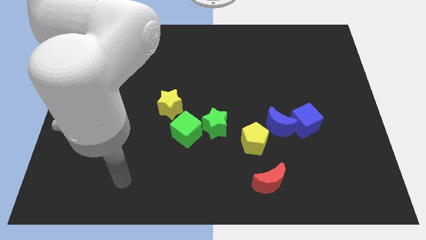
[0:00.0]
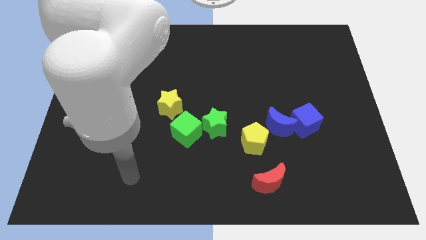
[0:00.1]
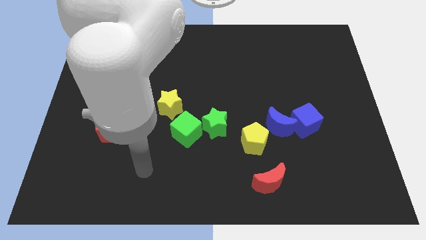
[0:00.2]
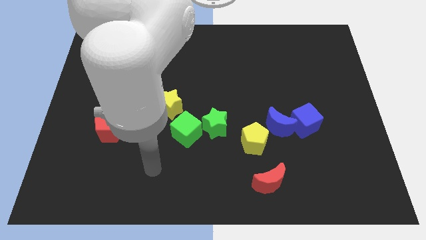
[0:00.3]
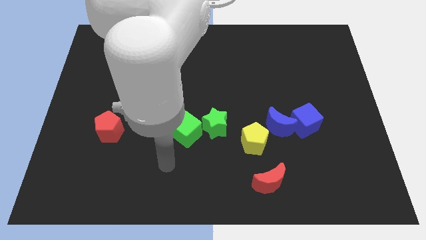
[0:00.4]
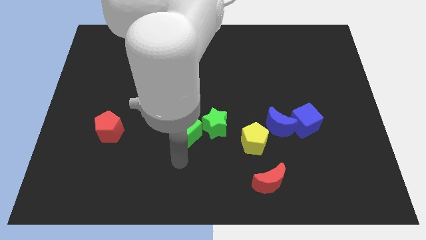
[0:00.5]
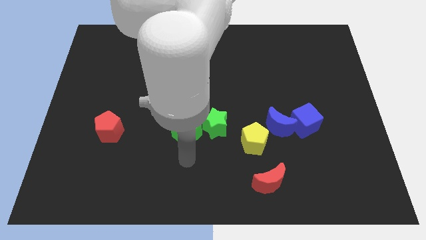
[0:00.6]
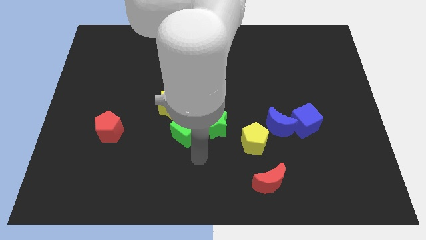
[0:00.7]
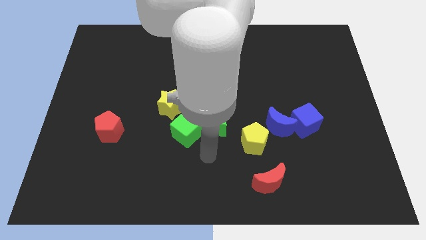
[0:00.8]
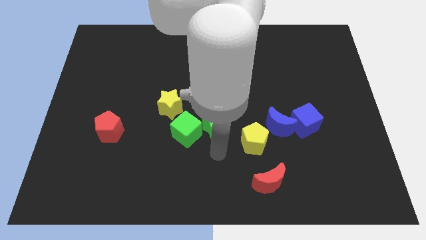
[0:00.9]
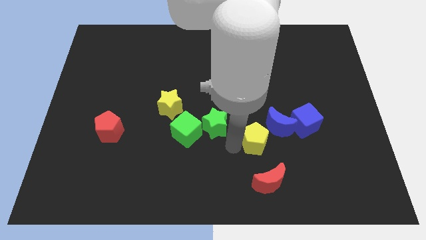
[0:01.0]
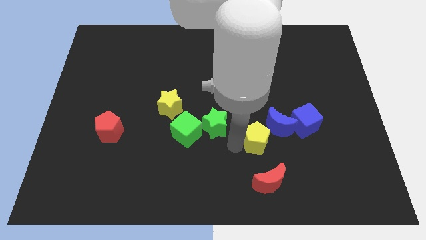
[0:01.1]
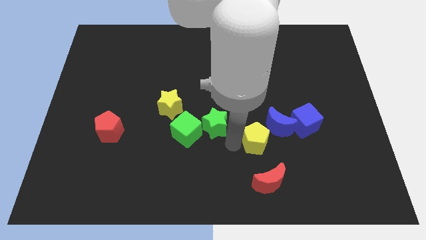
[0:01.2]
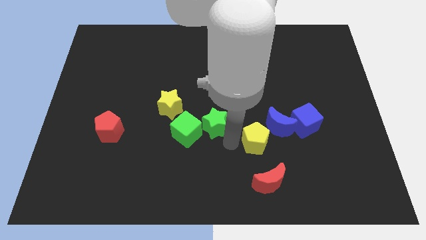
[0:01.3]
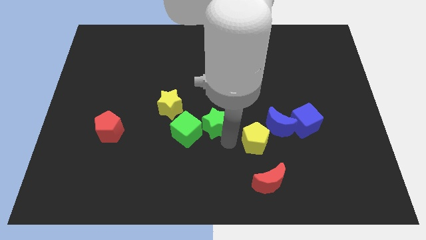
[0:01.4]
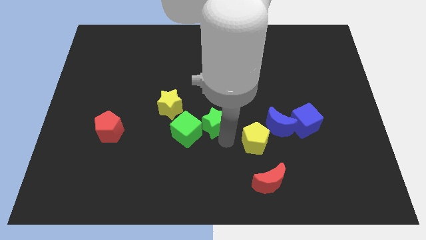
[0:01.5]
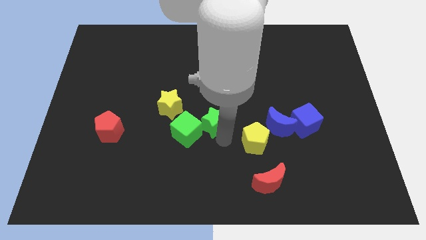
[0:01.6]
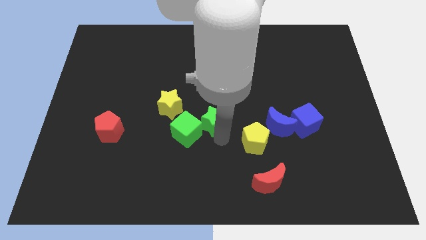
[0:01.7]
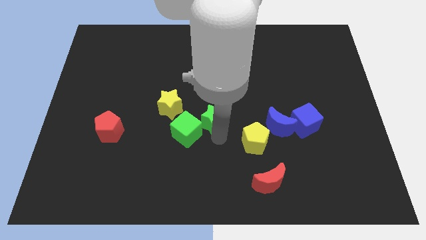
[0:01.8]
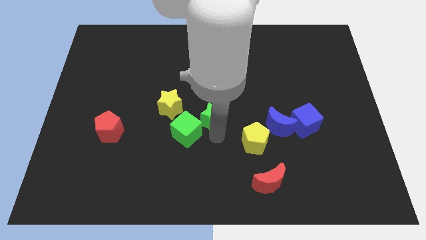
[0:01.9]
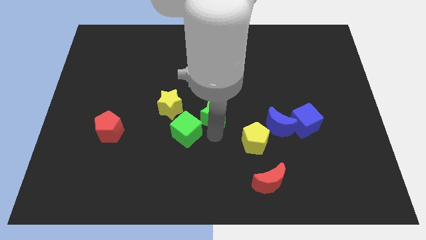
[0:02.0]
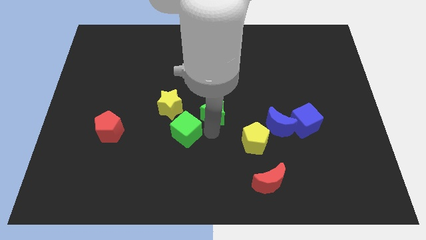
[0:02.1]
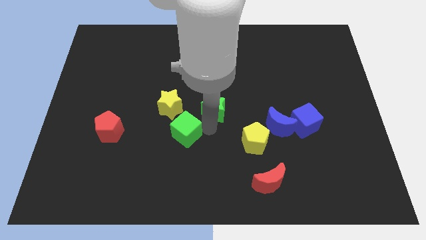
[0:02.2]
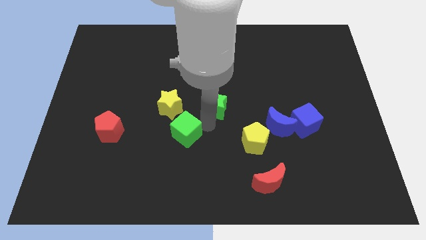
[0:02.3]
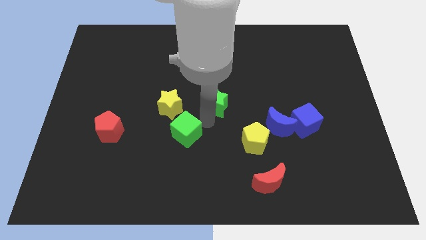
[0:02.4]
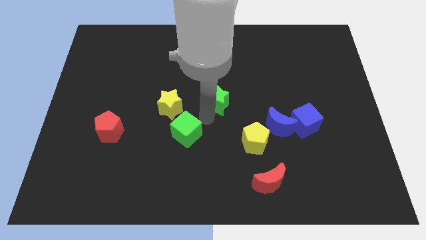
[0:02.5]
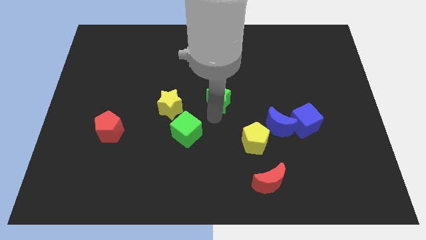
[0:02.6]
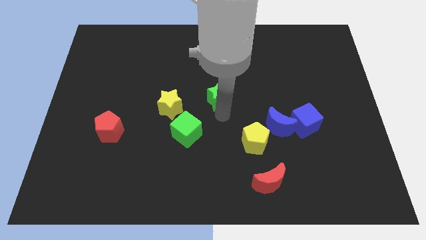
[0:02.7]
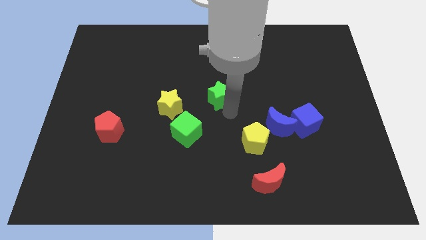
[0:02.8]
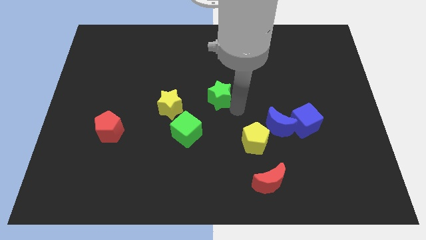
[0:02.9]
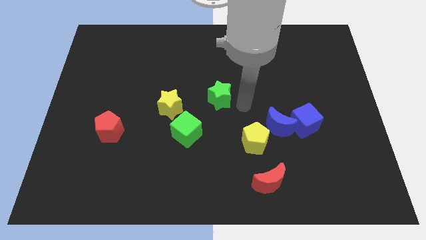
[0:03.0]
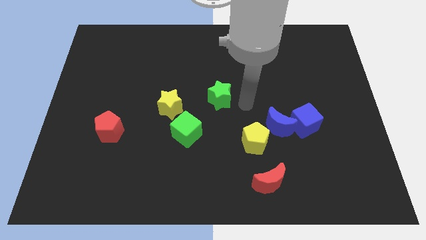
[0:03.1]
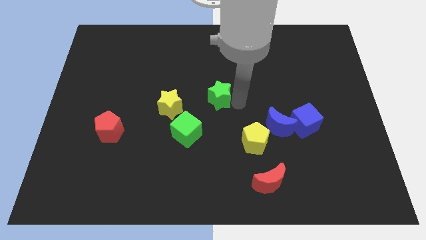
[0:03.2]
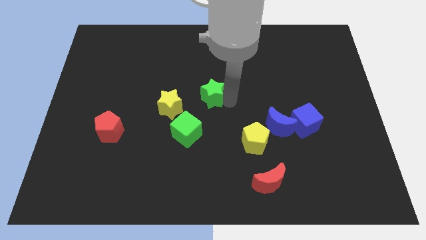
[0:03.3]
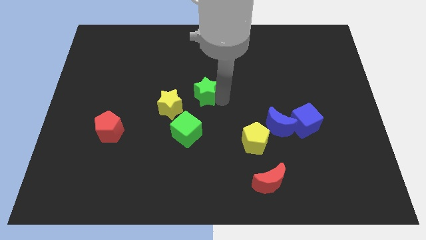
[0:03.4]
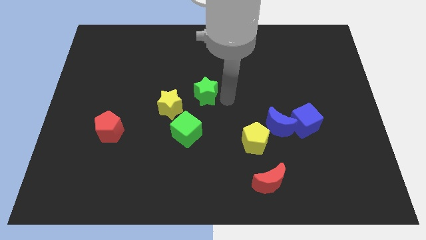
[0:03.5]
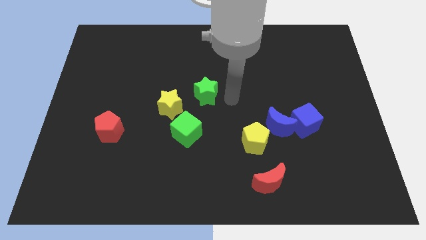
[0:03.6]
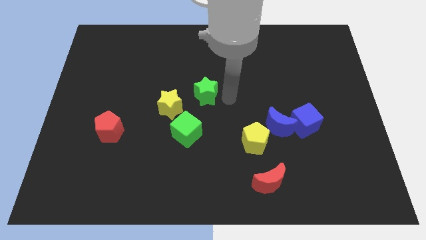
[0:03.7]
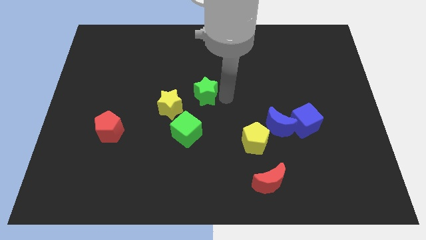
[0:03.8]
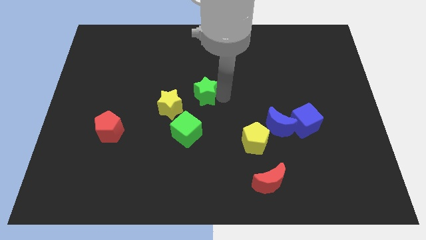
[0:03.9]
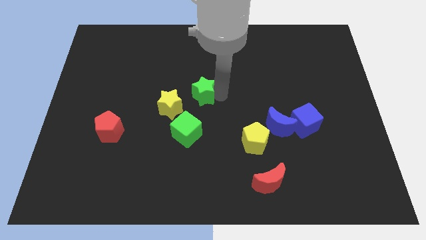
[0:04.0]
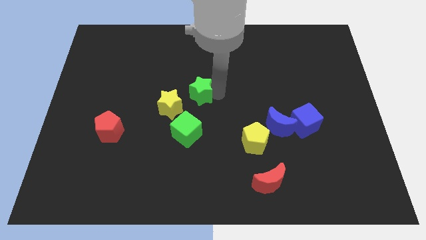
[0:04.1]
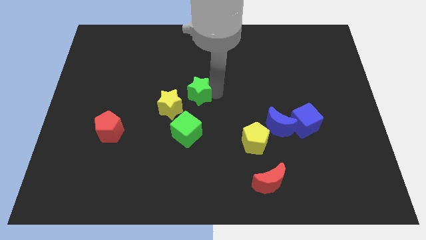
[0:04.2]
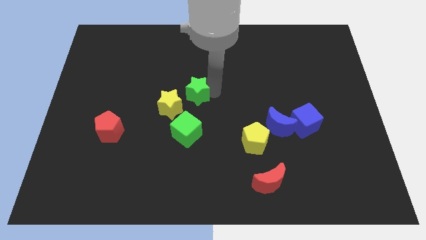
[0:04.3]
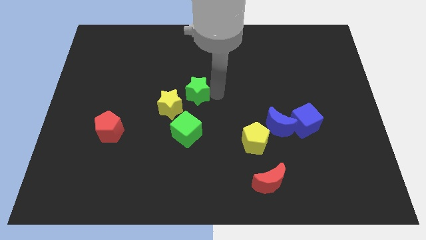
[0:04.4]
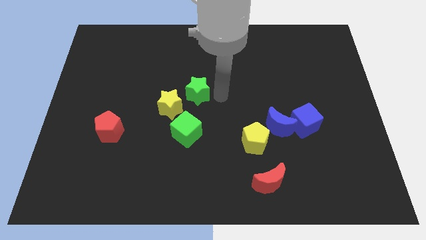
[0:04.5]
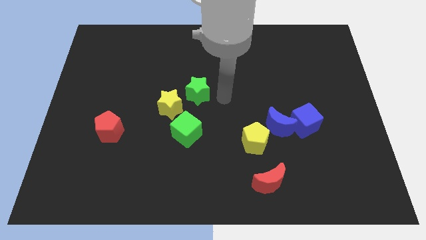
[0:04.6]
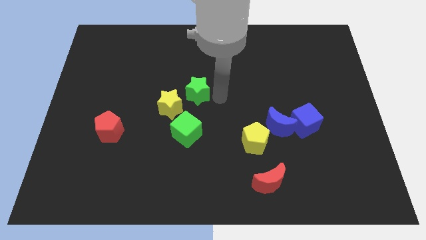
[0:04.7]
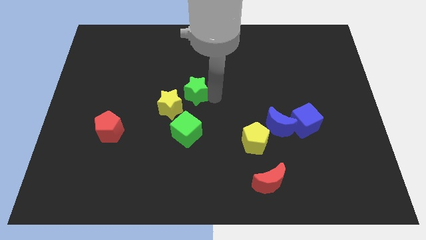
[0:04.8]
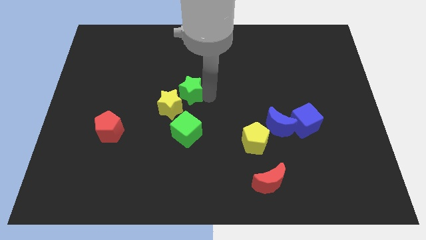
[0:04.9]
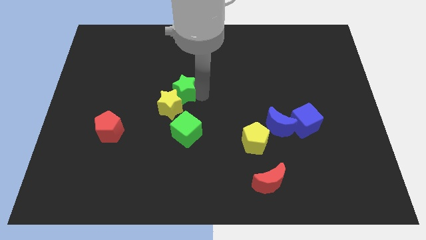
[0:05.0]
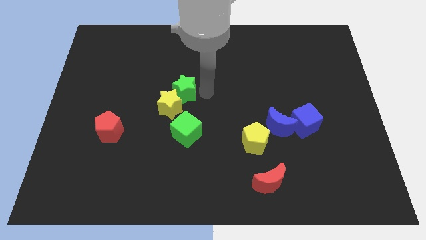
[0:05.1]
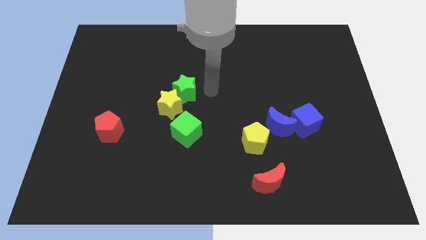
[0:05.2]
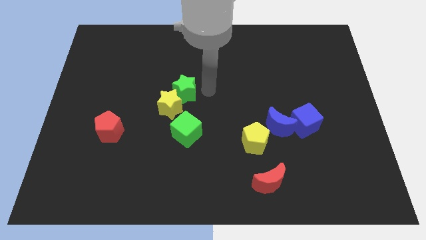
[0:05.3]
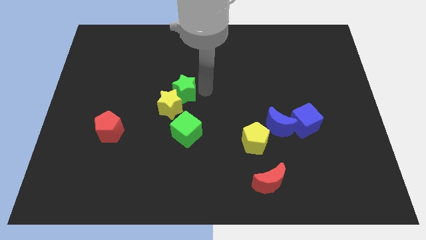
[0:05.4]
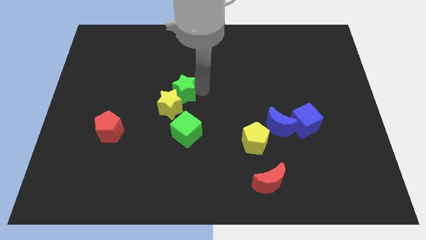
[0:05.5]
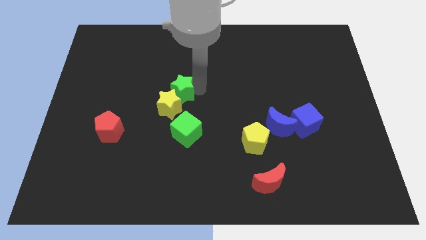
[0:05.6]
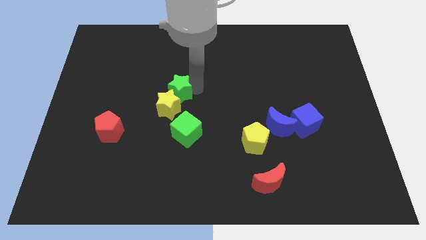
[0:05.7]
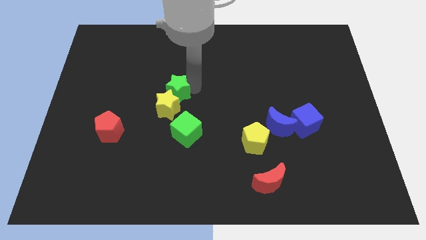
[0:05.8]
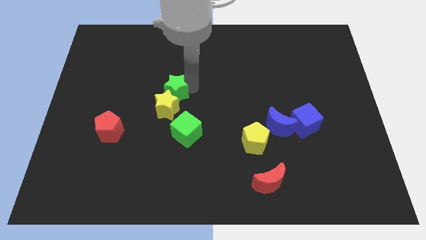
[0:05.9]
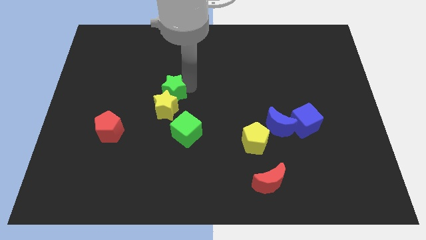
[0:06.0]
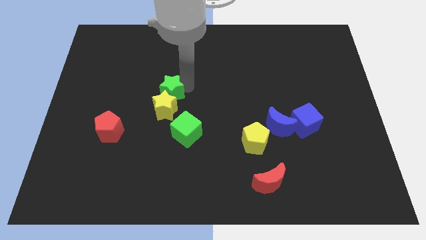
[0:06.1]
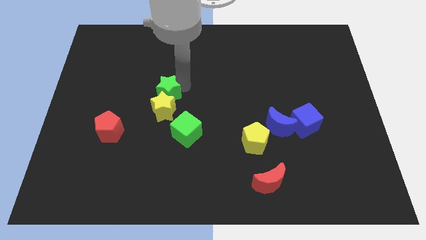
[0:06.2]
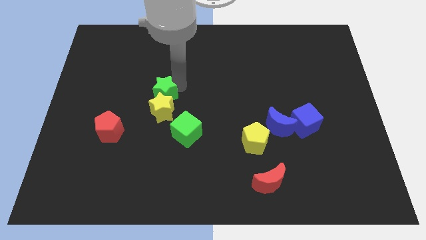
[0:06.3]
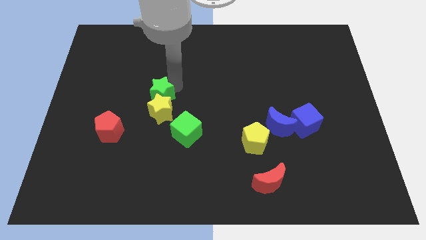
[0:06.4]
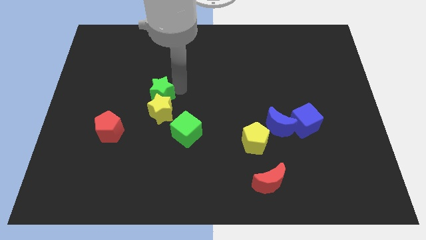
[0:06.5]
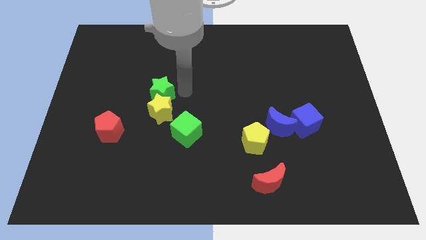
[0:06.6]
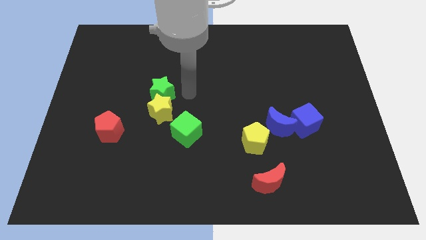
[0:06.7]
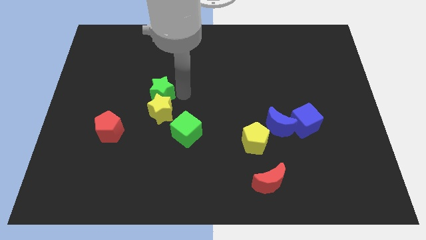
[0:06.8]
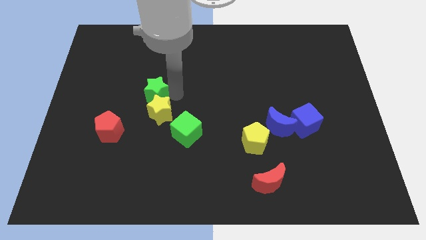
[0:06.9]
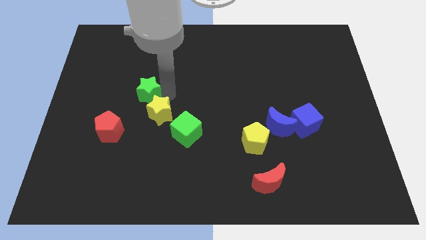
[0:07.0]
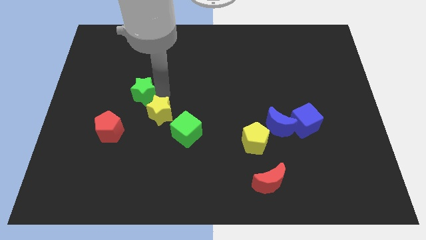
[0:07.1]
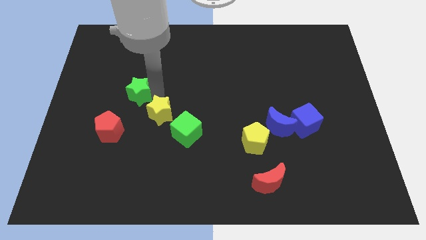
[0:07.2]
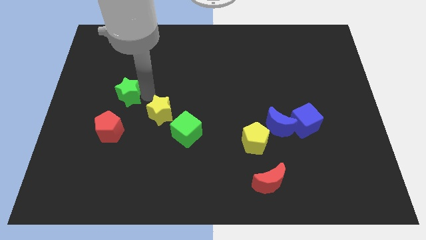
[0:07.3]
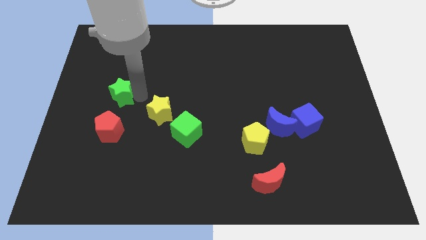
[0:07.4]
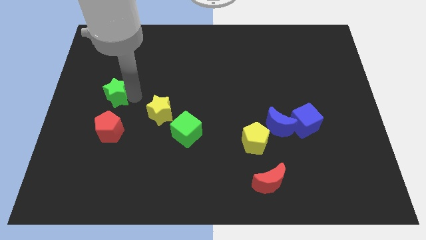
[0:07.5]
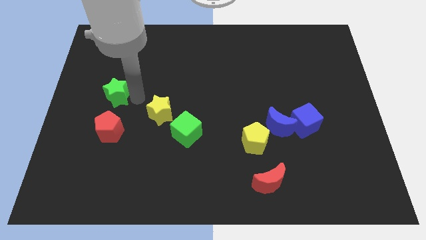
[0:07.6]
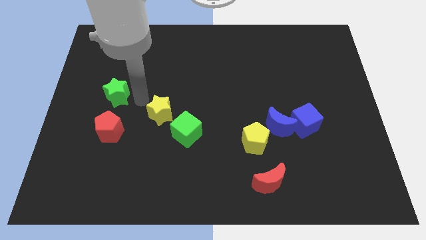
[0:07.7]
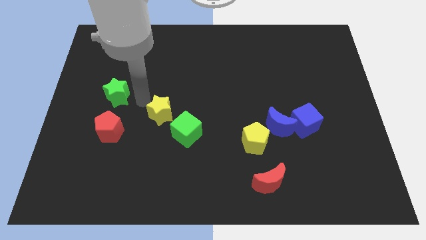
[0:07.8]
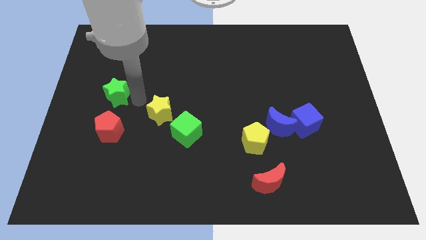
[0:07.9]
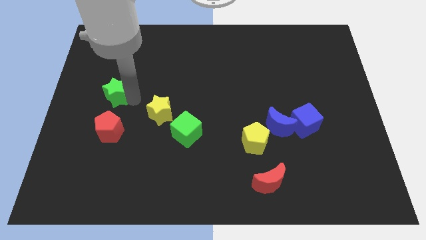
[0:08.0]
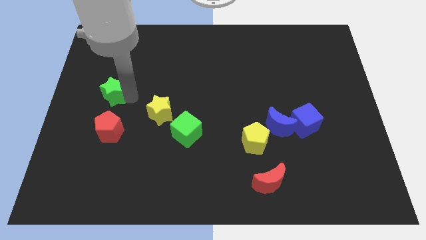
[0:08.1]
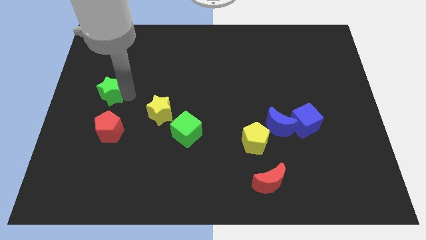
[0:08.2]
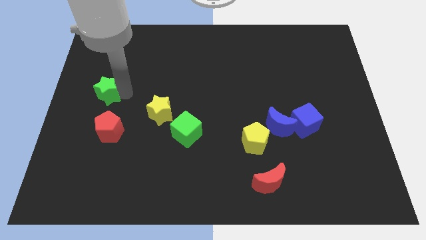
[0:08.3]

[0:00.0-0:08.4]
push the green star to the left side
